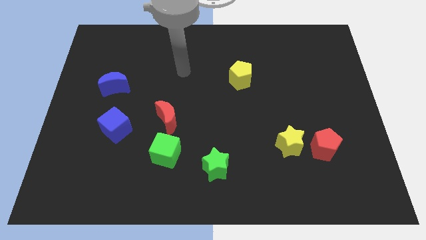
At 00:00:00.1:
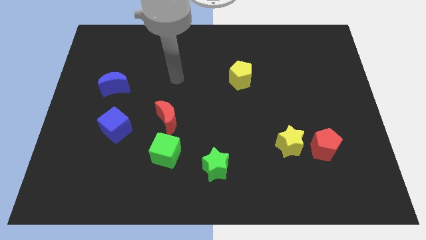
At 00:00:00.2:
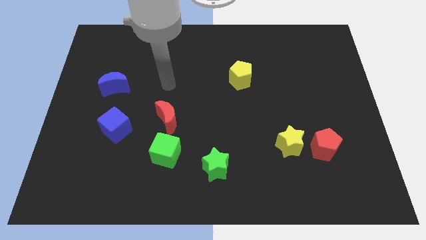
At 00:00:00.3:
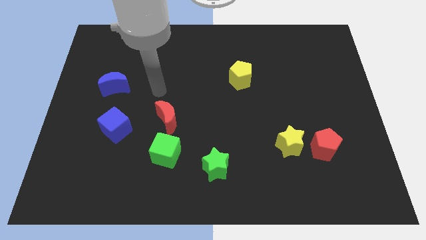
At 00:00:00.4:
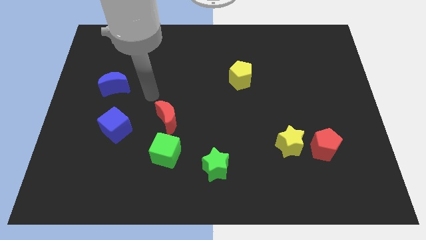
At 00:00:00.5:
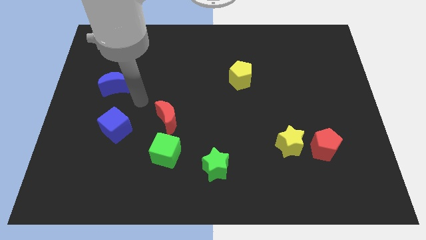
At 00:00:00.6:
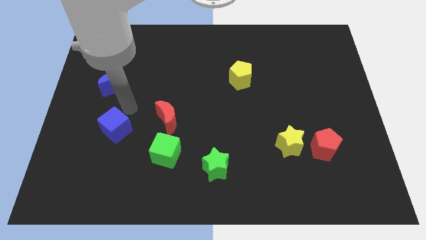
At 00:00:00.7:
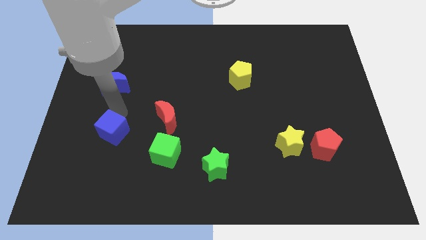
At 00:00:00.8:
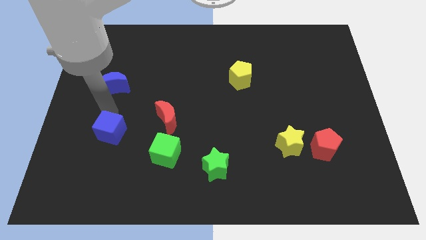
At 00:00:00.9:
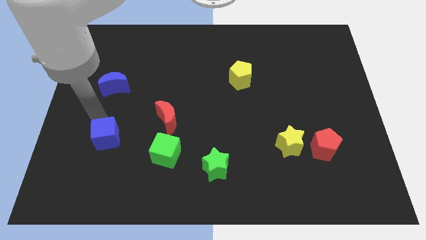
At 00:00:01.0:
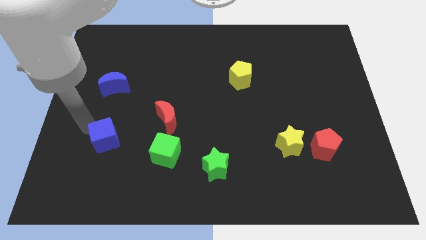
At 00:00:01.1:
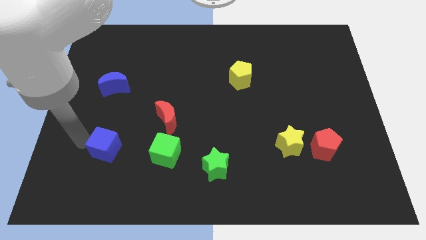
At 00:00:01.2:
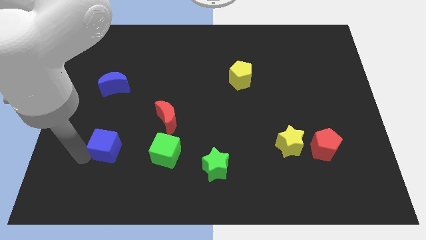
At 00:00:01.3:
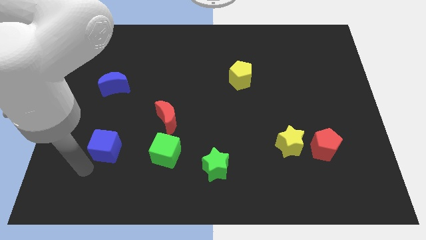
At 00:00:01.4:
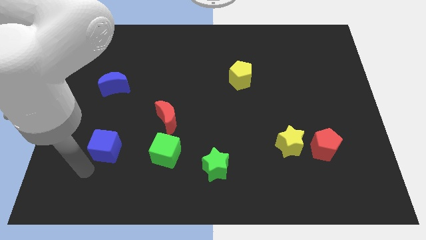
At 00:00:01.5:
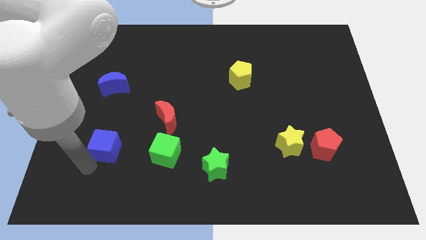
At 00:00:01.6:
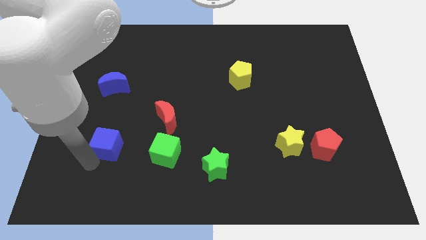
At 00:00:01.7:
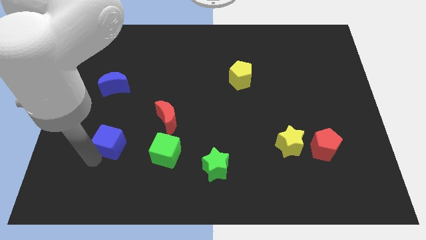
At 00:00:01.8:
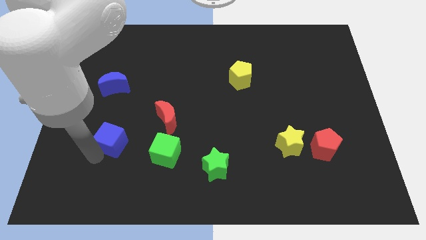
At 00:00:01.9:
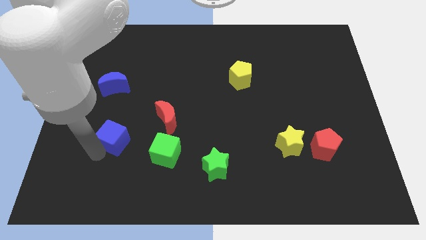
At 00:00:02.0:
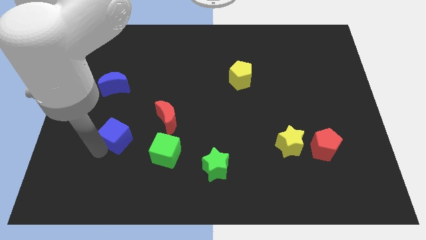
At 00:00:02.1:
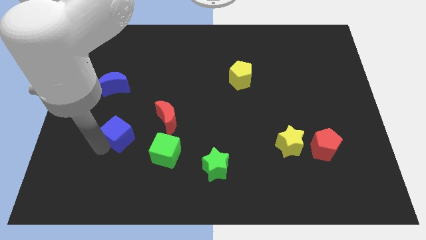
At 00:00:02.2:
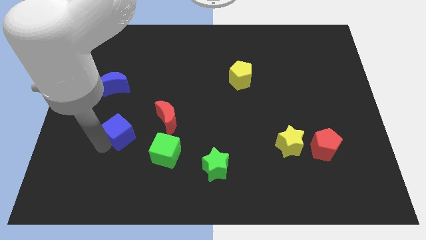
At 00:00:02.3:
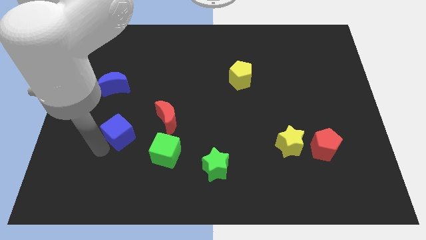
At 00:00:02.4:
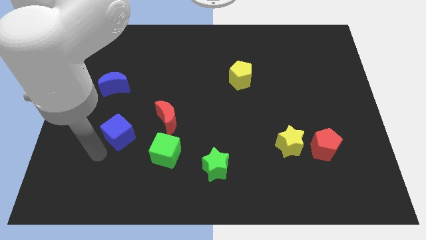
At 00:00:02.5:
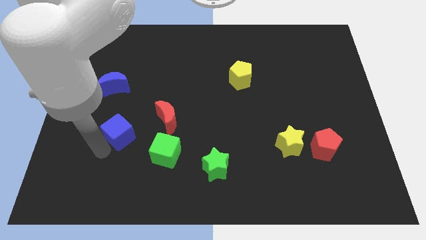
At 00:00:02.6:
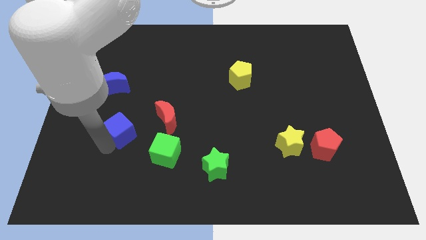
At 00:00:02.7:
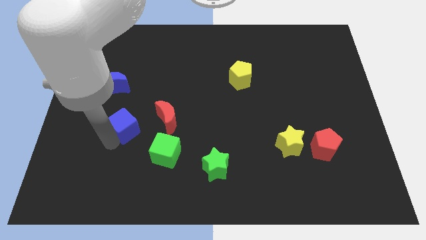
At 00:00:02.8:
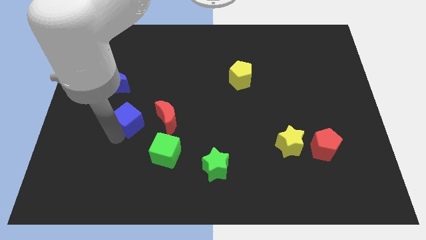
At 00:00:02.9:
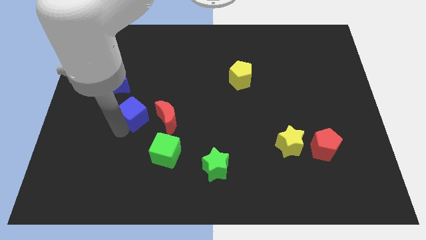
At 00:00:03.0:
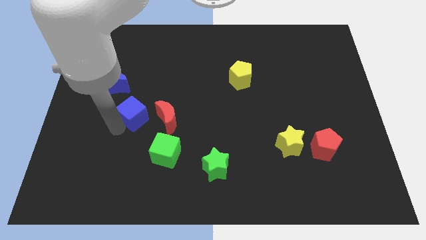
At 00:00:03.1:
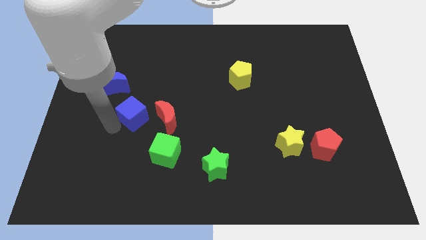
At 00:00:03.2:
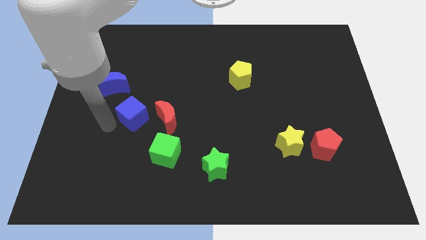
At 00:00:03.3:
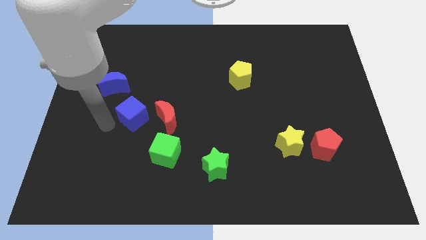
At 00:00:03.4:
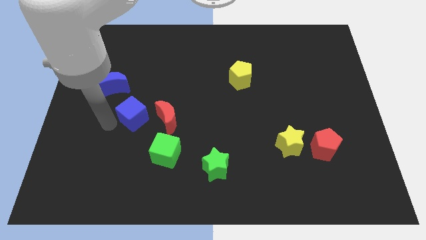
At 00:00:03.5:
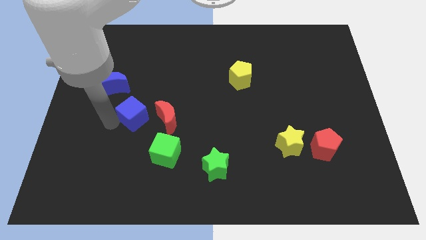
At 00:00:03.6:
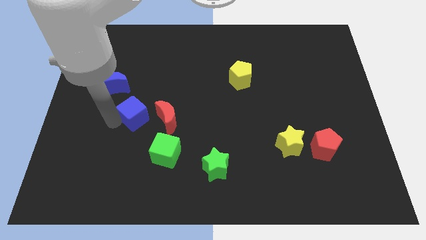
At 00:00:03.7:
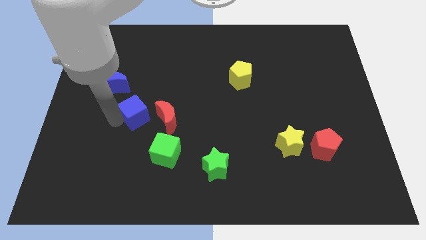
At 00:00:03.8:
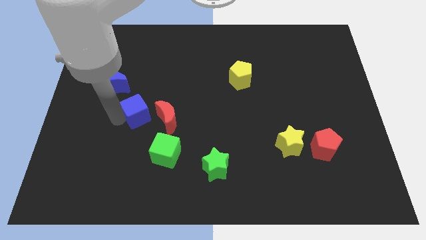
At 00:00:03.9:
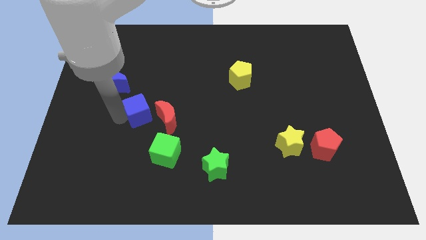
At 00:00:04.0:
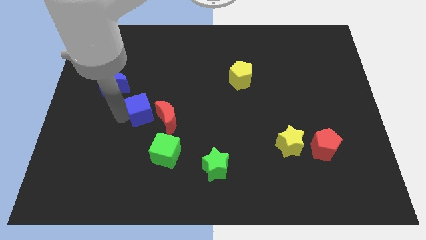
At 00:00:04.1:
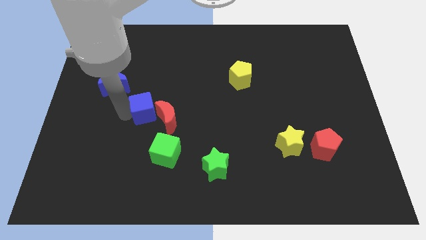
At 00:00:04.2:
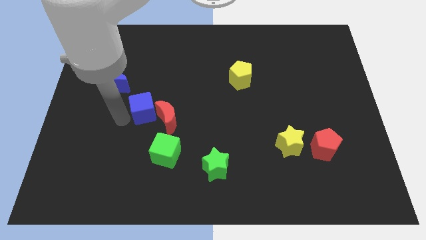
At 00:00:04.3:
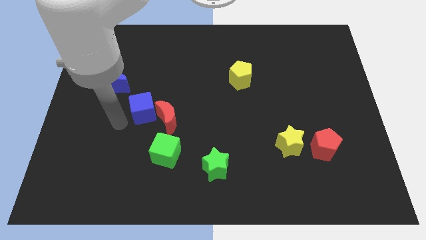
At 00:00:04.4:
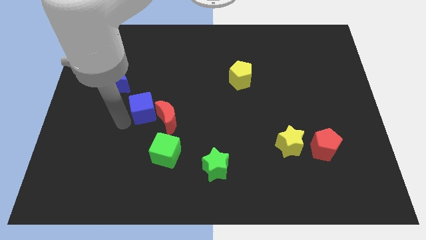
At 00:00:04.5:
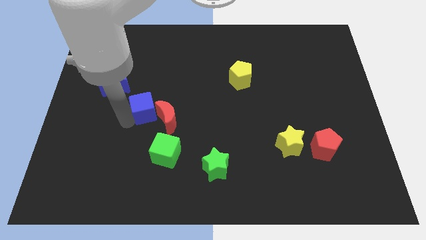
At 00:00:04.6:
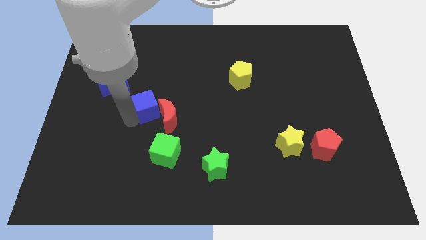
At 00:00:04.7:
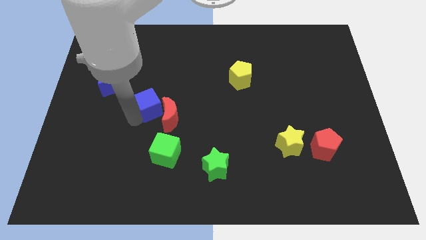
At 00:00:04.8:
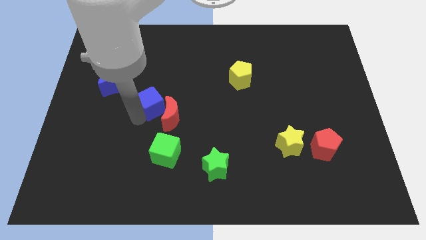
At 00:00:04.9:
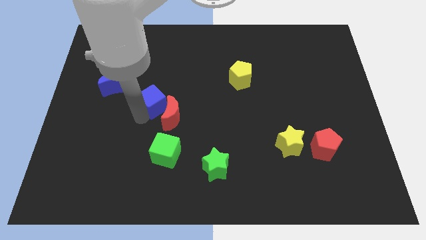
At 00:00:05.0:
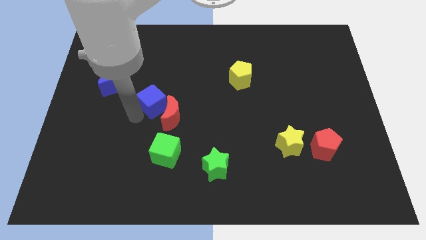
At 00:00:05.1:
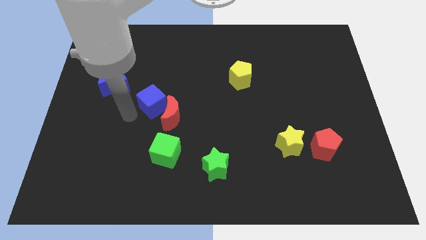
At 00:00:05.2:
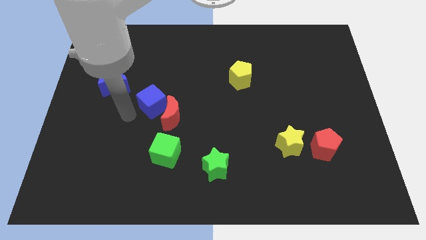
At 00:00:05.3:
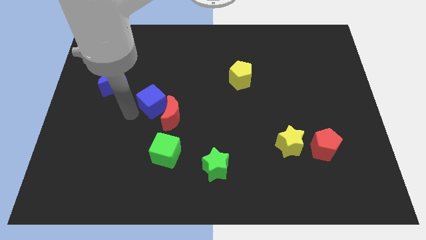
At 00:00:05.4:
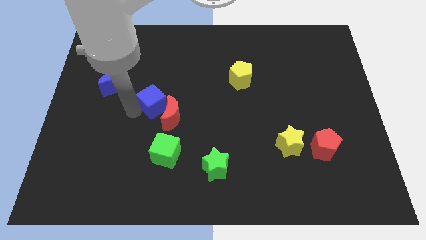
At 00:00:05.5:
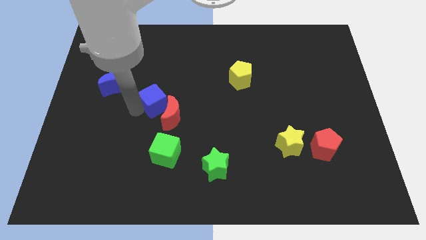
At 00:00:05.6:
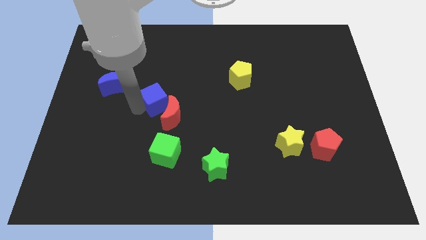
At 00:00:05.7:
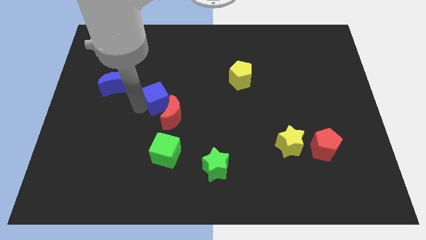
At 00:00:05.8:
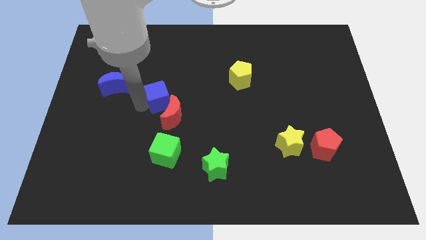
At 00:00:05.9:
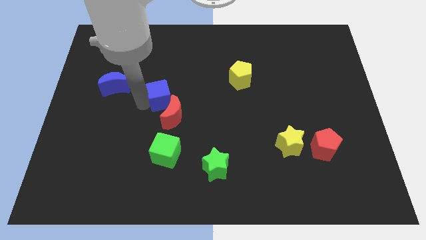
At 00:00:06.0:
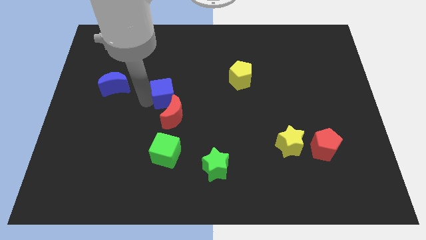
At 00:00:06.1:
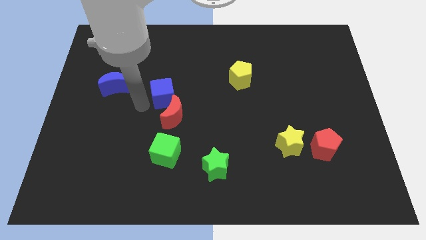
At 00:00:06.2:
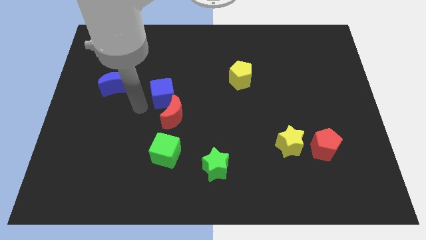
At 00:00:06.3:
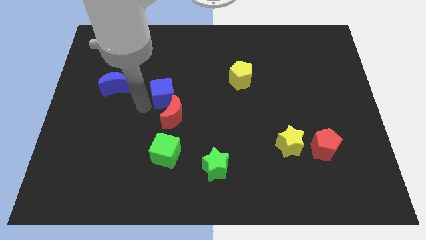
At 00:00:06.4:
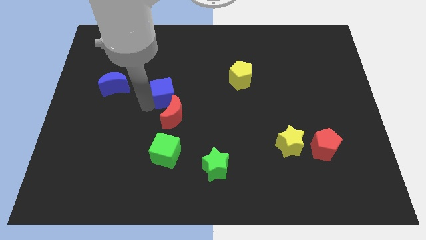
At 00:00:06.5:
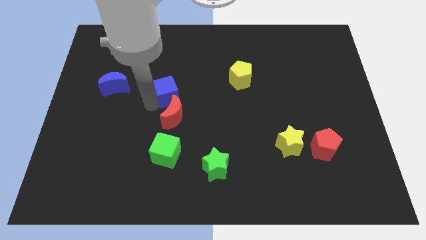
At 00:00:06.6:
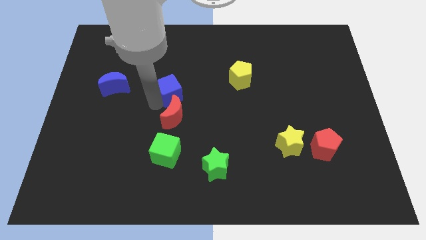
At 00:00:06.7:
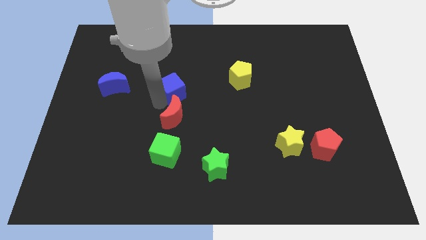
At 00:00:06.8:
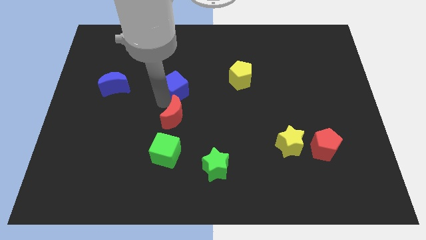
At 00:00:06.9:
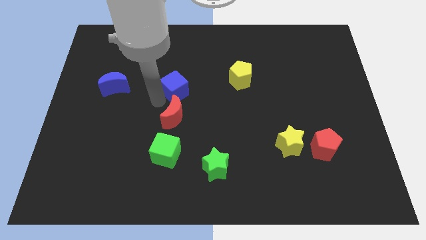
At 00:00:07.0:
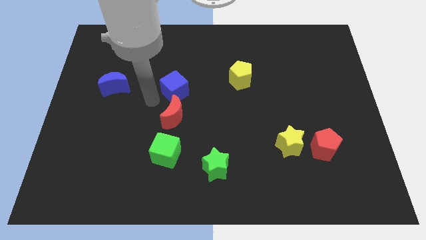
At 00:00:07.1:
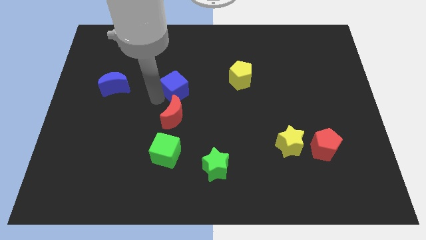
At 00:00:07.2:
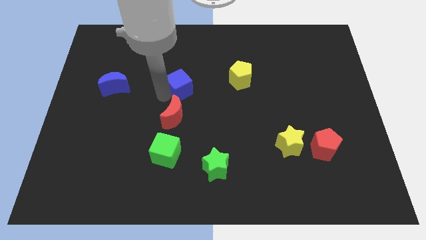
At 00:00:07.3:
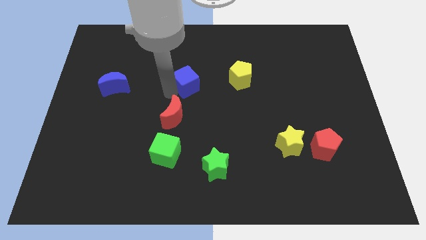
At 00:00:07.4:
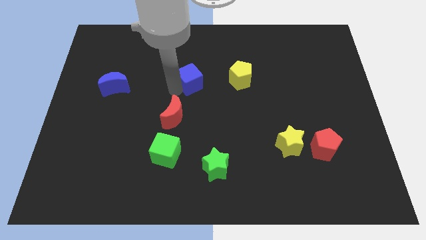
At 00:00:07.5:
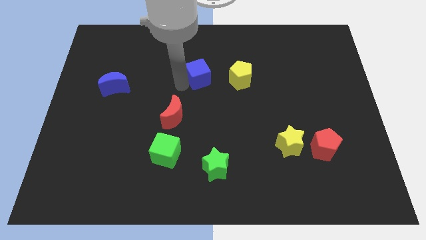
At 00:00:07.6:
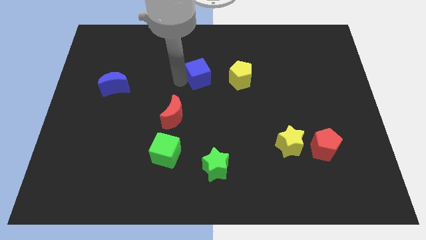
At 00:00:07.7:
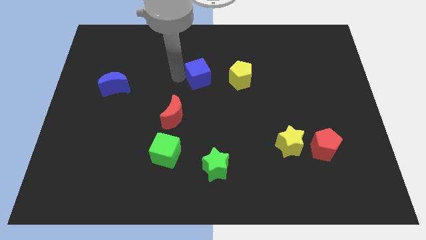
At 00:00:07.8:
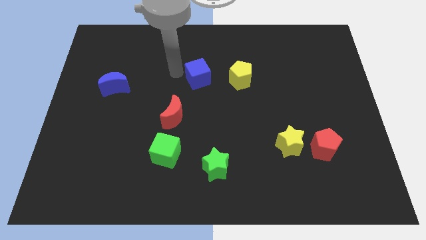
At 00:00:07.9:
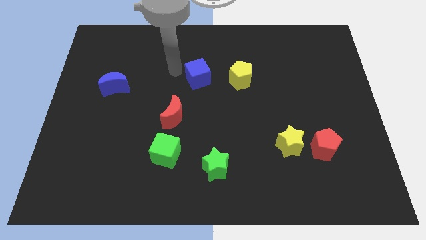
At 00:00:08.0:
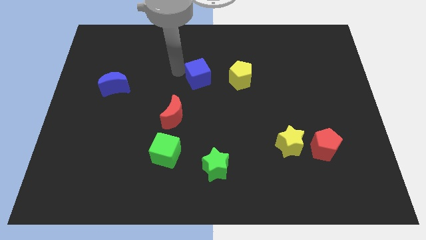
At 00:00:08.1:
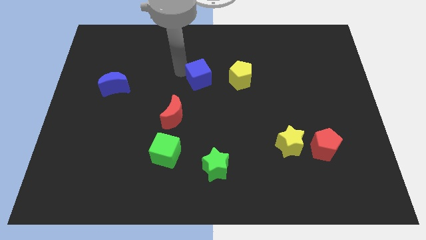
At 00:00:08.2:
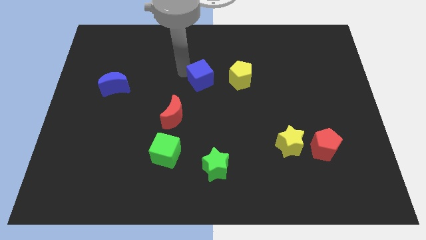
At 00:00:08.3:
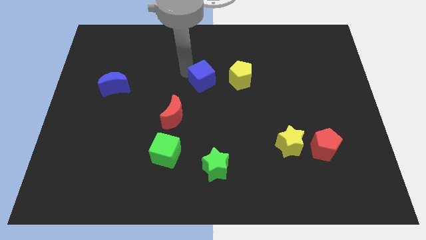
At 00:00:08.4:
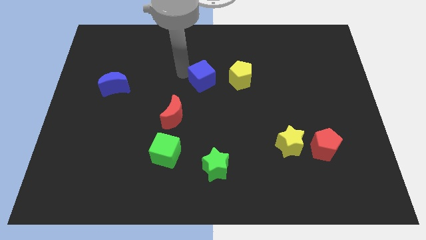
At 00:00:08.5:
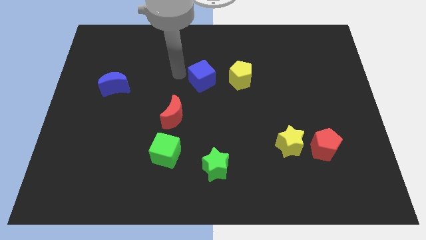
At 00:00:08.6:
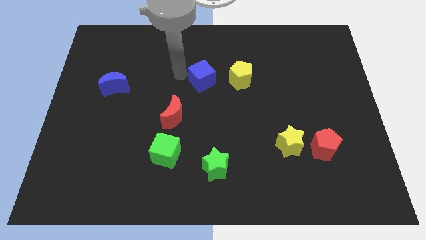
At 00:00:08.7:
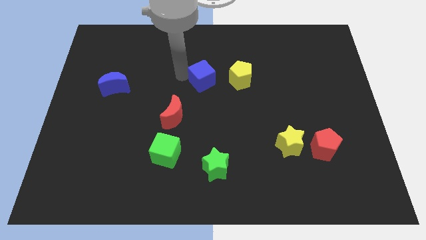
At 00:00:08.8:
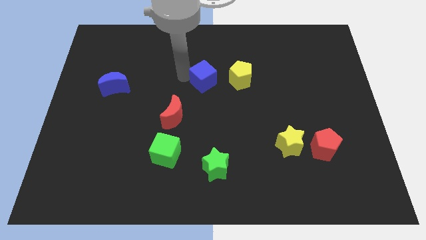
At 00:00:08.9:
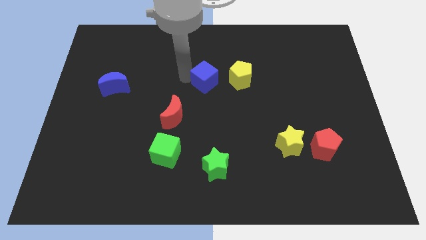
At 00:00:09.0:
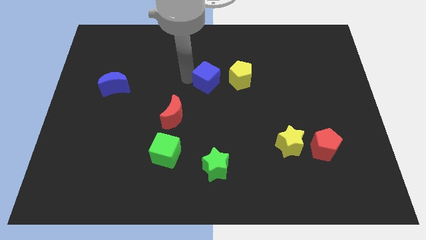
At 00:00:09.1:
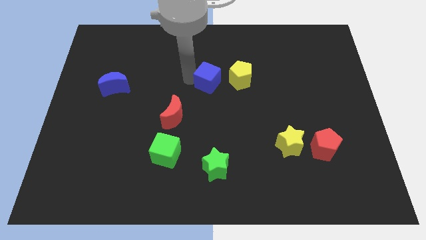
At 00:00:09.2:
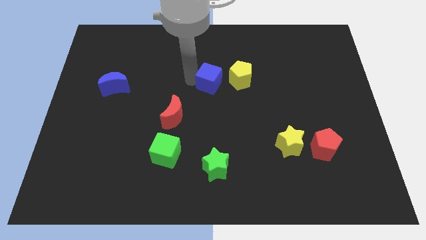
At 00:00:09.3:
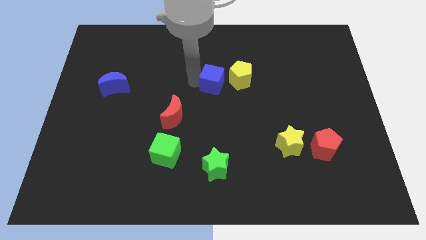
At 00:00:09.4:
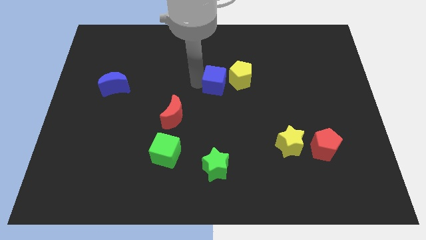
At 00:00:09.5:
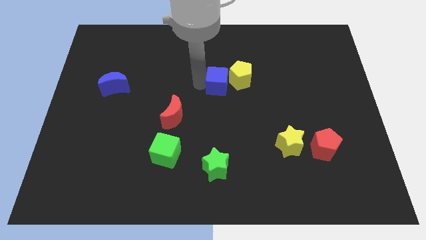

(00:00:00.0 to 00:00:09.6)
push the blue cube close to the yellow pentagon
